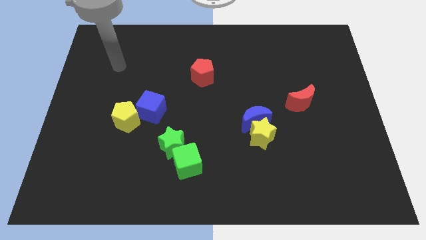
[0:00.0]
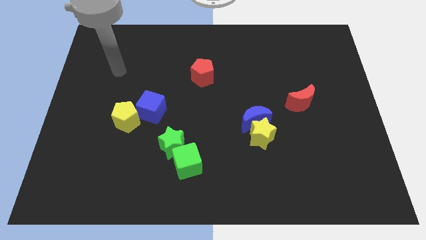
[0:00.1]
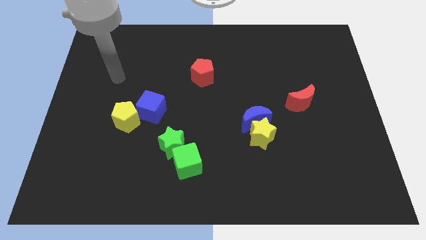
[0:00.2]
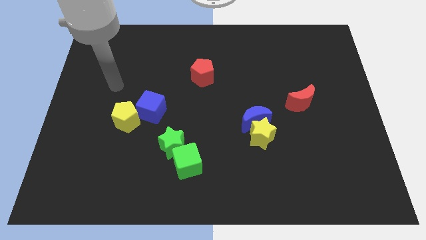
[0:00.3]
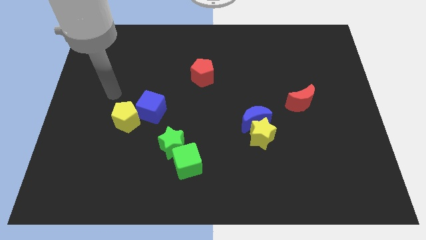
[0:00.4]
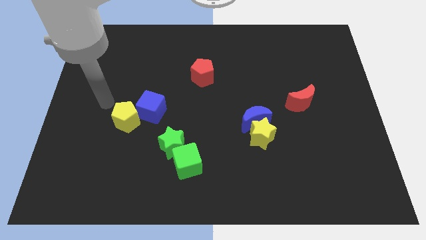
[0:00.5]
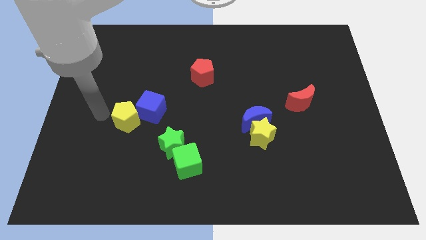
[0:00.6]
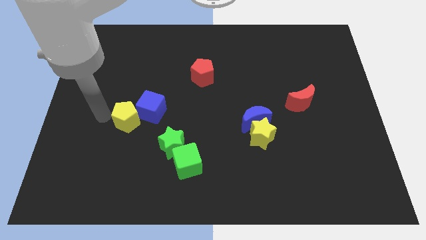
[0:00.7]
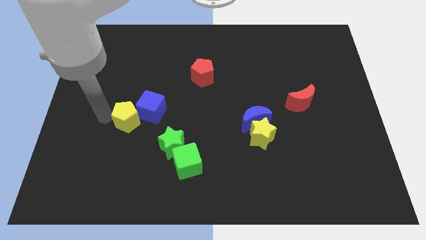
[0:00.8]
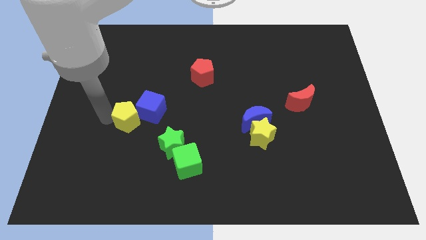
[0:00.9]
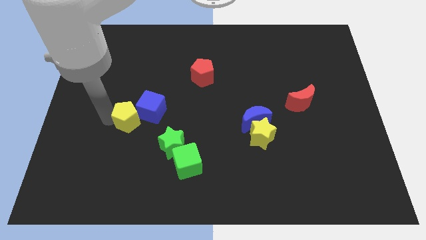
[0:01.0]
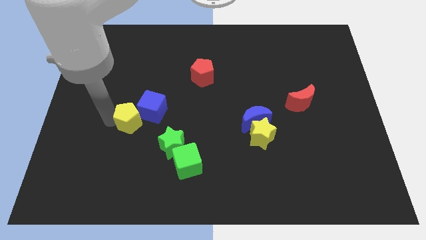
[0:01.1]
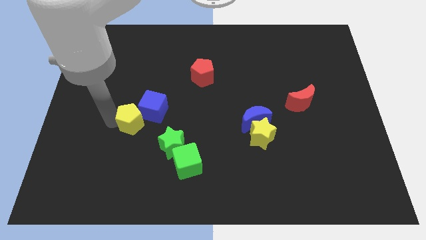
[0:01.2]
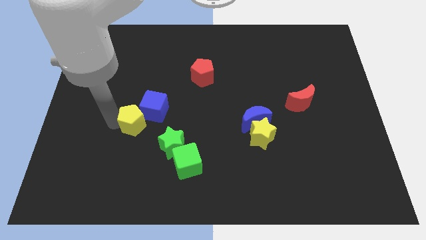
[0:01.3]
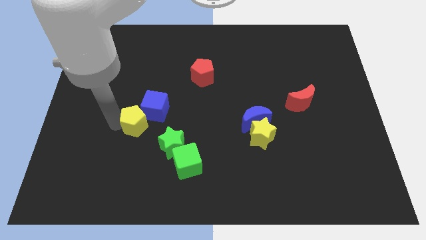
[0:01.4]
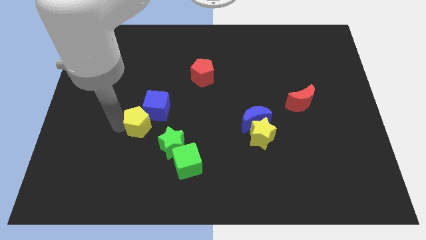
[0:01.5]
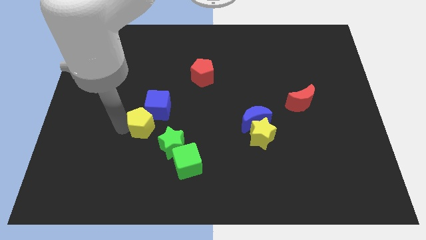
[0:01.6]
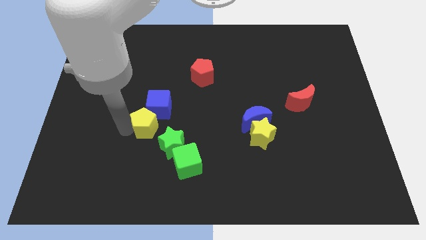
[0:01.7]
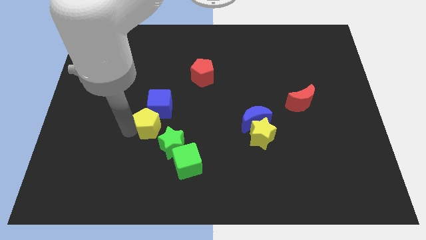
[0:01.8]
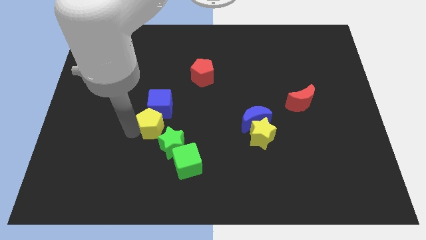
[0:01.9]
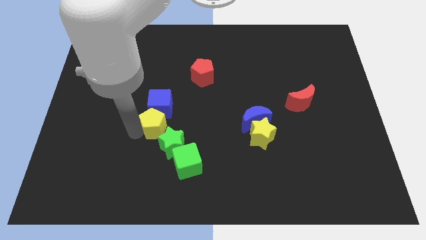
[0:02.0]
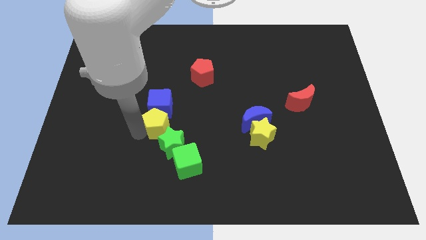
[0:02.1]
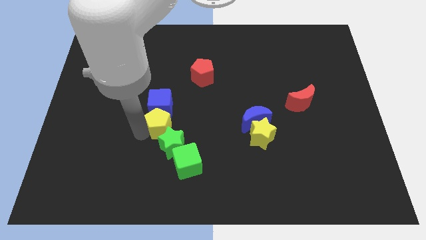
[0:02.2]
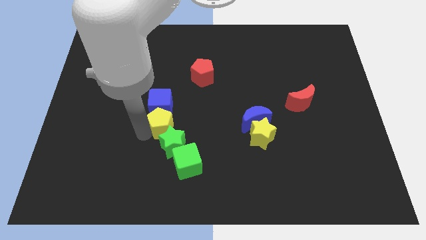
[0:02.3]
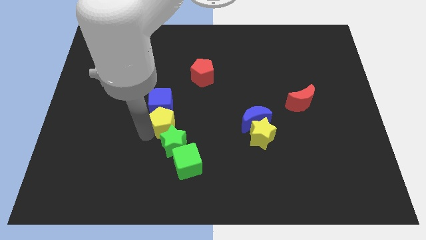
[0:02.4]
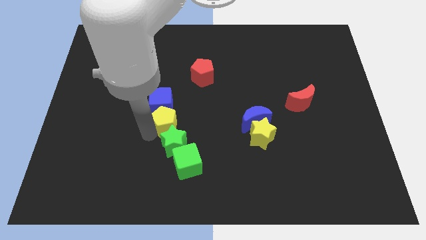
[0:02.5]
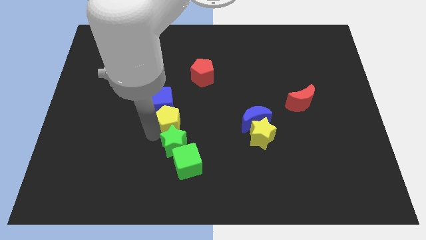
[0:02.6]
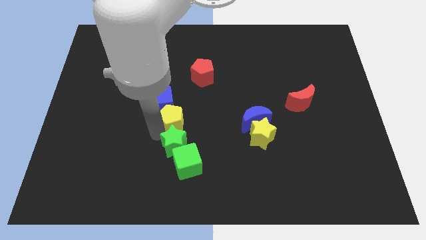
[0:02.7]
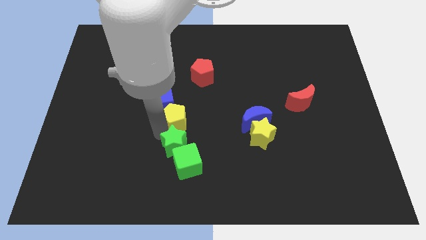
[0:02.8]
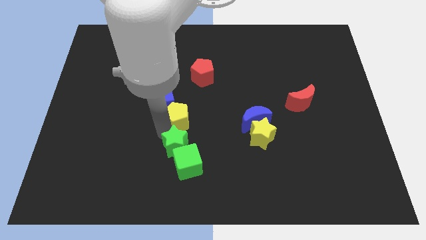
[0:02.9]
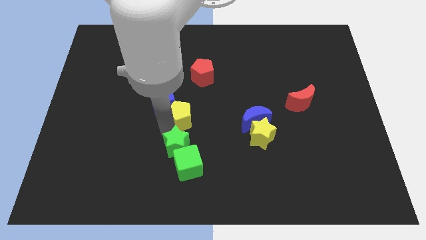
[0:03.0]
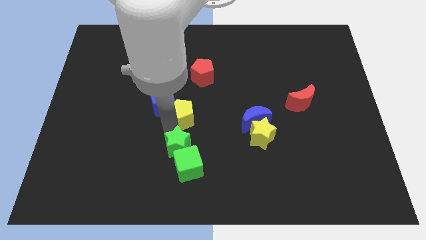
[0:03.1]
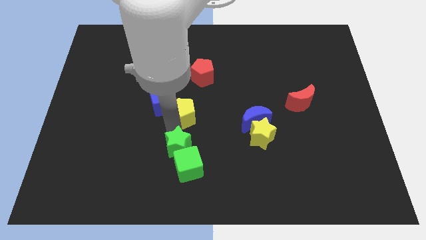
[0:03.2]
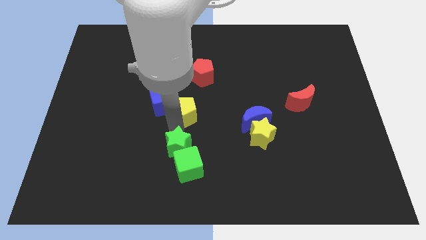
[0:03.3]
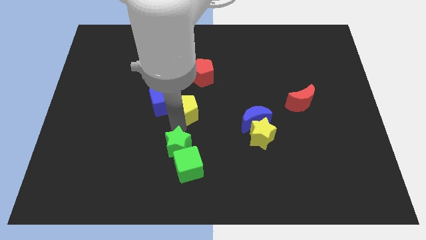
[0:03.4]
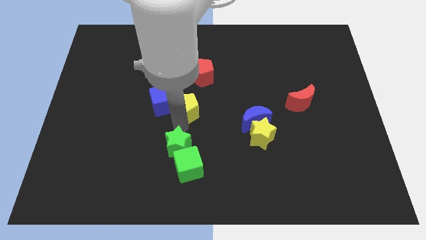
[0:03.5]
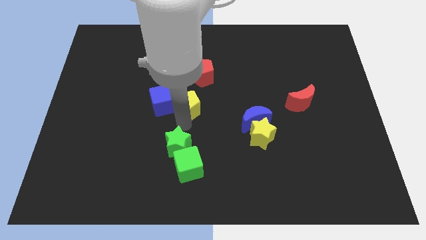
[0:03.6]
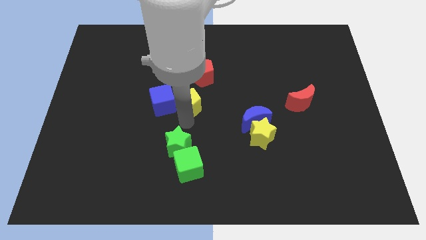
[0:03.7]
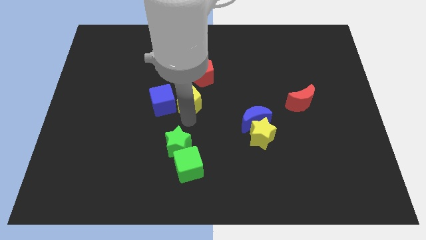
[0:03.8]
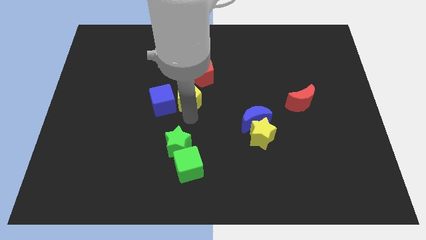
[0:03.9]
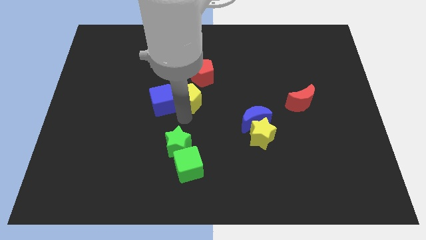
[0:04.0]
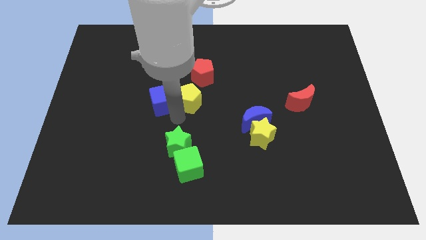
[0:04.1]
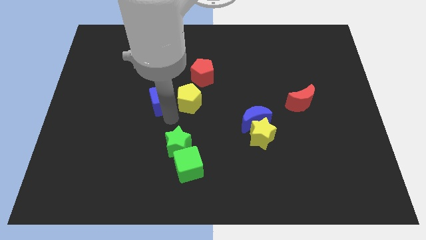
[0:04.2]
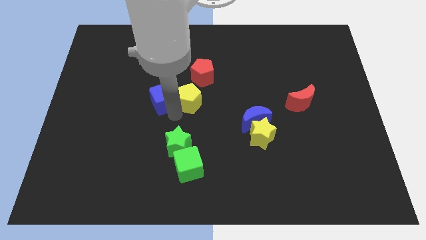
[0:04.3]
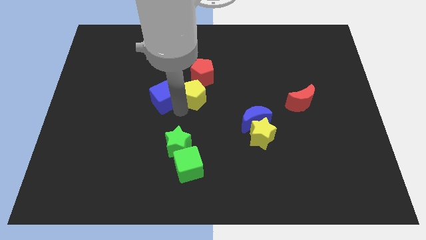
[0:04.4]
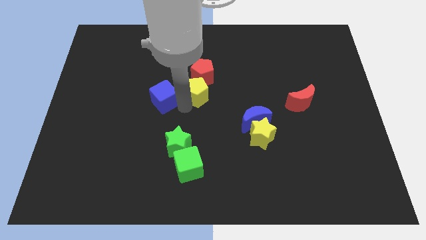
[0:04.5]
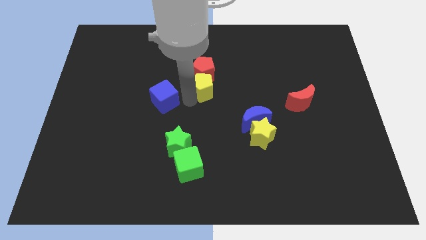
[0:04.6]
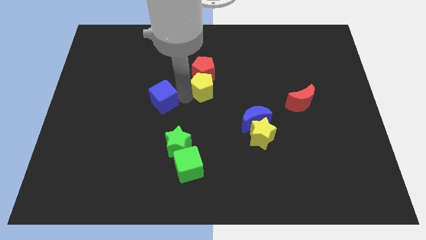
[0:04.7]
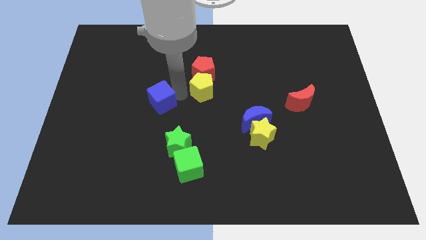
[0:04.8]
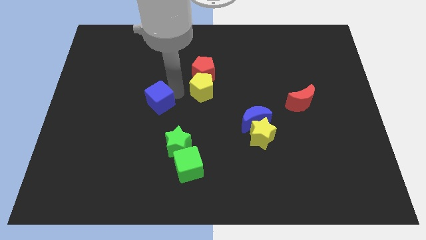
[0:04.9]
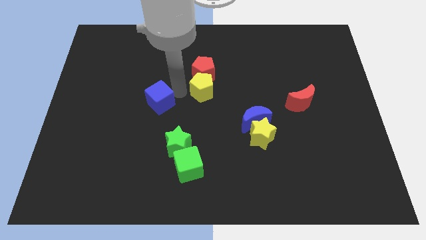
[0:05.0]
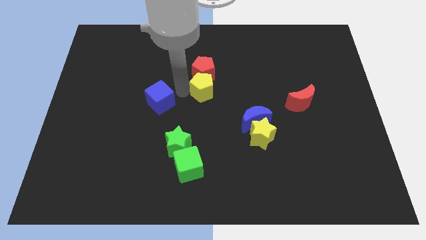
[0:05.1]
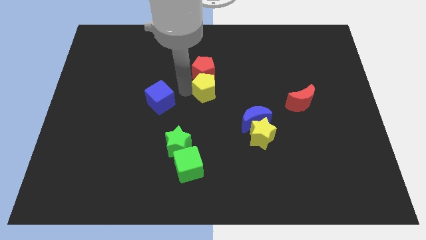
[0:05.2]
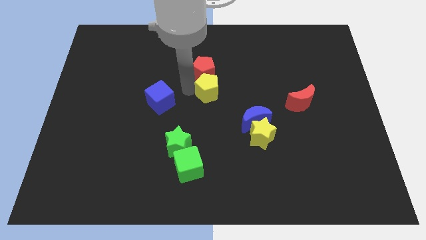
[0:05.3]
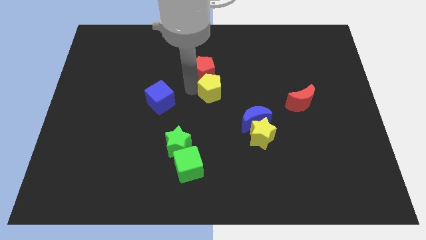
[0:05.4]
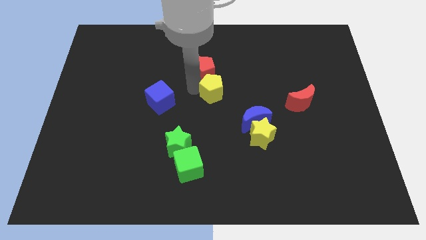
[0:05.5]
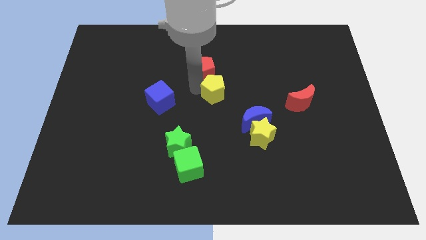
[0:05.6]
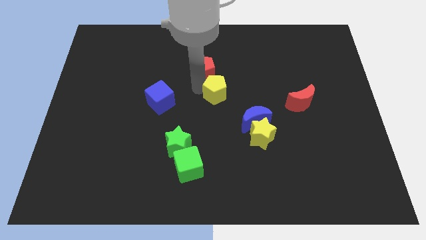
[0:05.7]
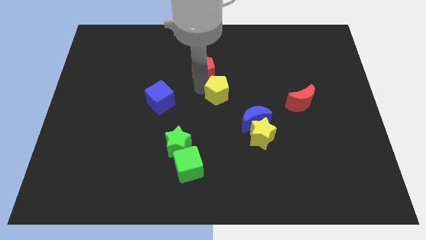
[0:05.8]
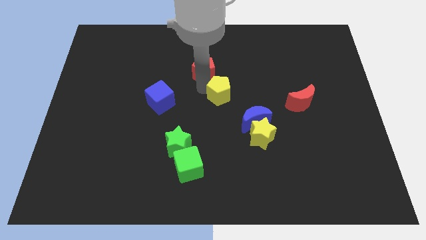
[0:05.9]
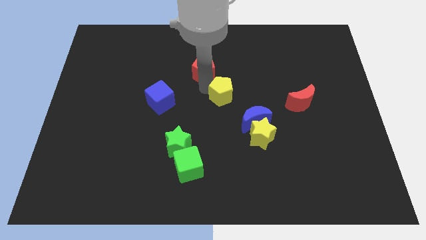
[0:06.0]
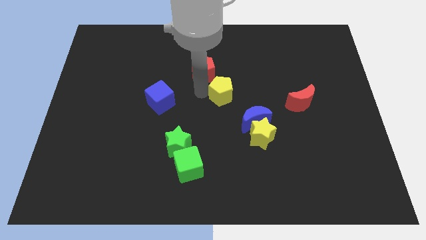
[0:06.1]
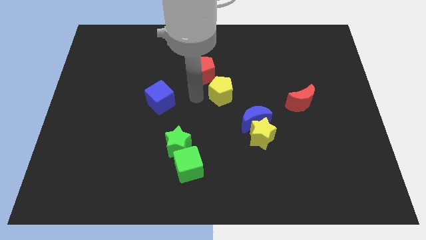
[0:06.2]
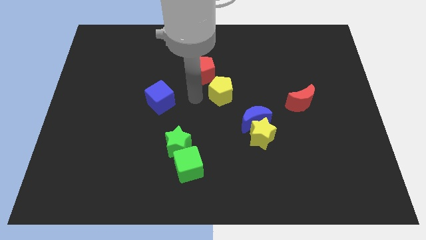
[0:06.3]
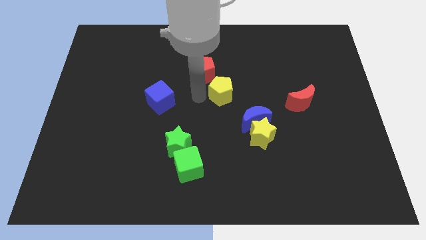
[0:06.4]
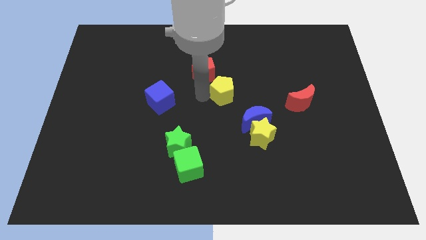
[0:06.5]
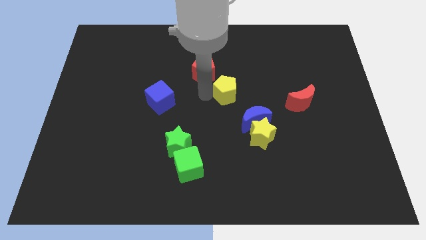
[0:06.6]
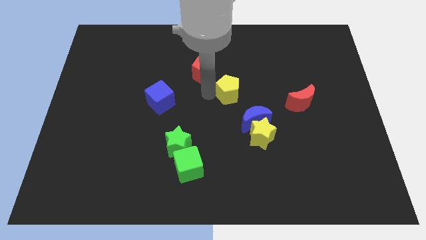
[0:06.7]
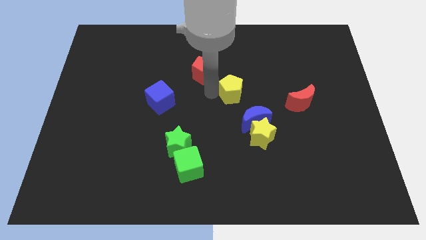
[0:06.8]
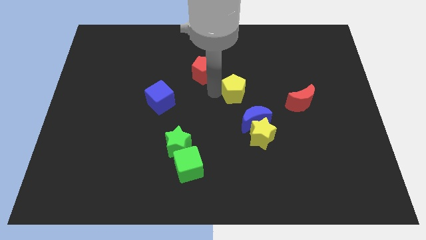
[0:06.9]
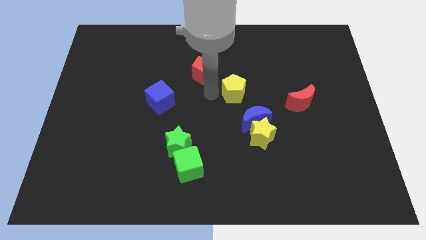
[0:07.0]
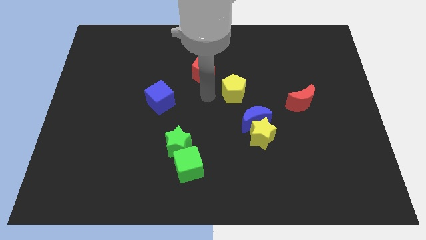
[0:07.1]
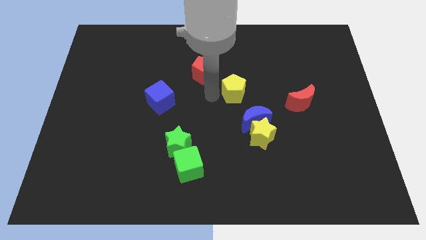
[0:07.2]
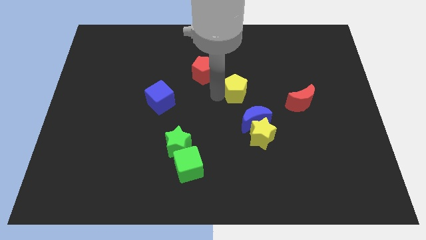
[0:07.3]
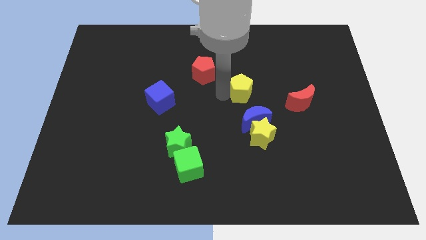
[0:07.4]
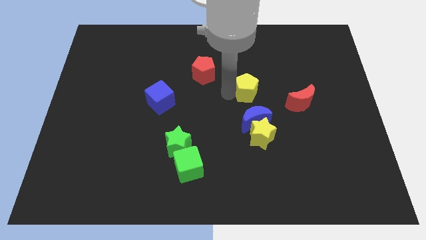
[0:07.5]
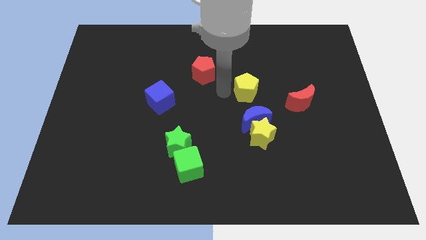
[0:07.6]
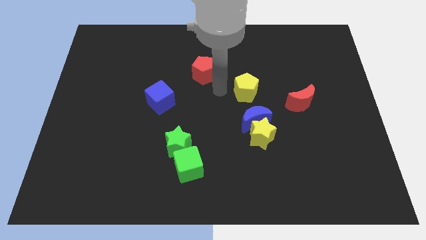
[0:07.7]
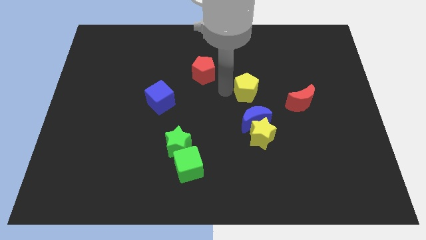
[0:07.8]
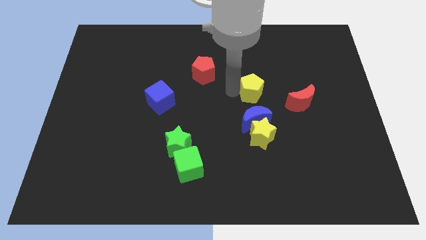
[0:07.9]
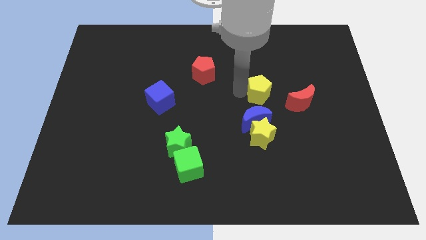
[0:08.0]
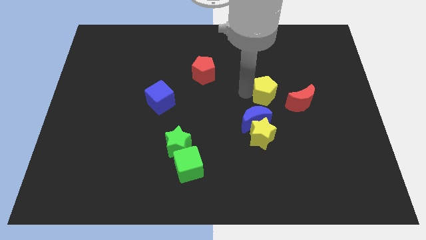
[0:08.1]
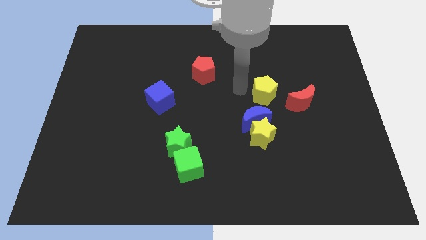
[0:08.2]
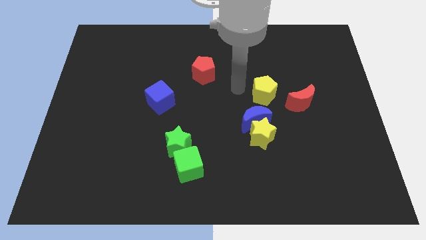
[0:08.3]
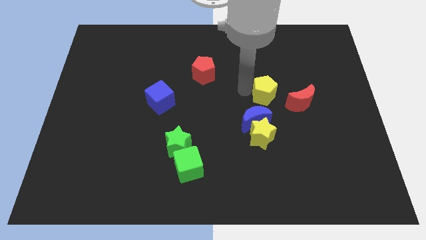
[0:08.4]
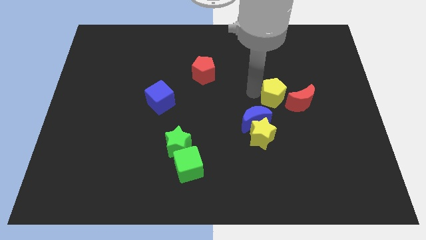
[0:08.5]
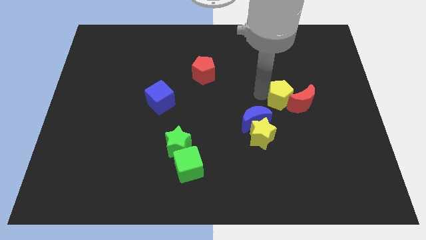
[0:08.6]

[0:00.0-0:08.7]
put the yellow pentagon to the red moon
